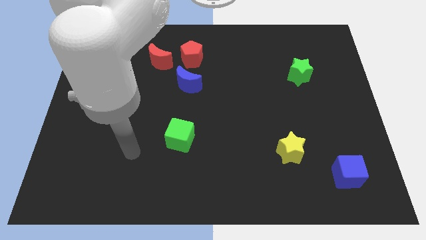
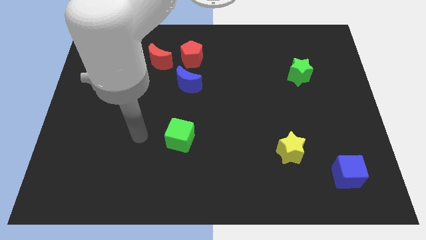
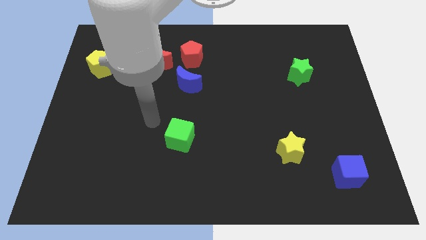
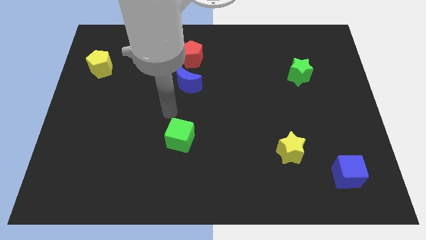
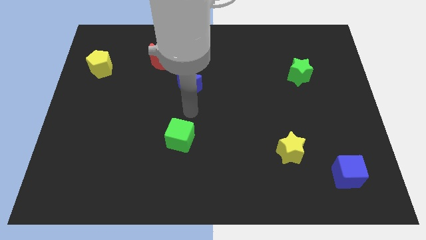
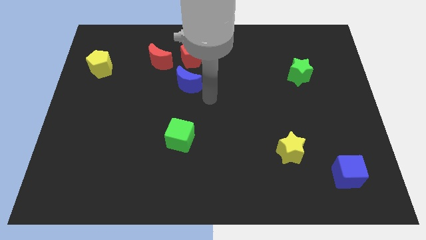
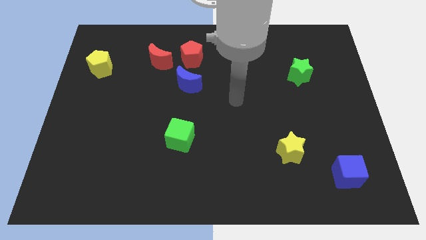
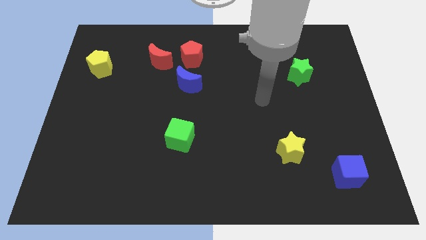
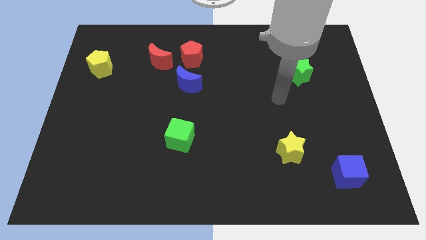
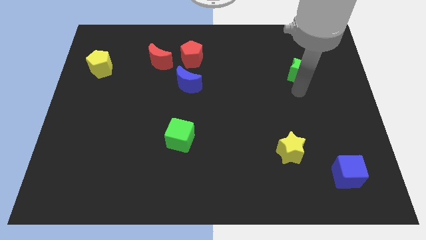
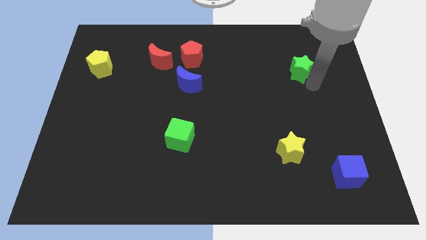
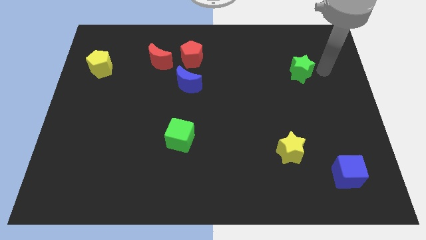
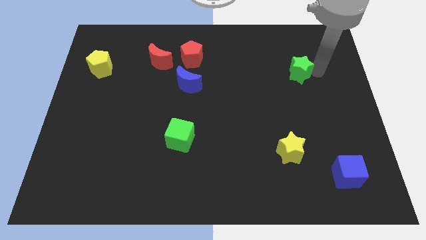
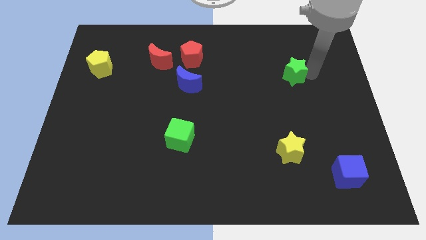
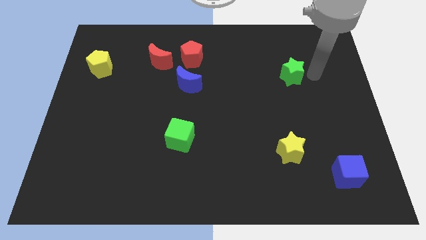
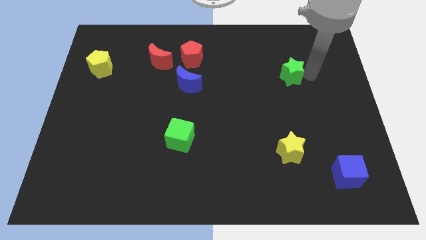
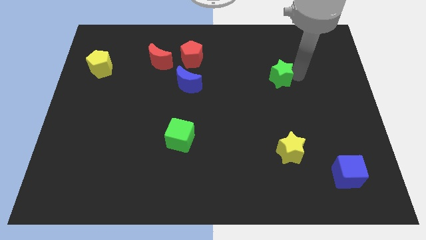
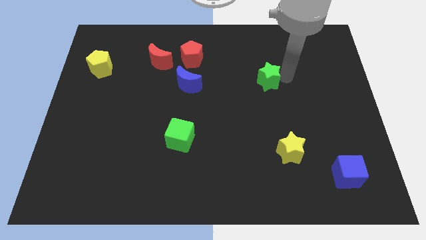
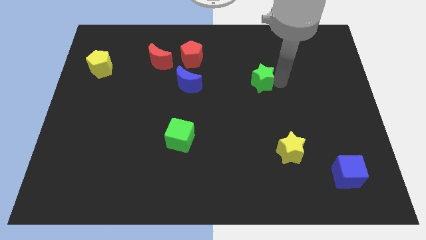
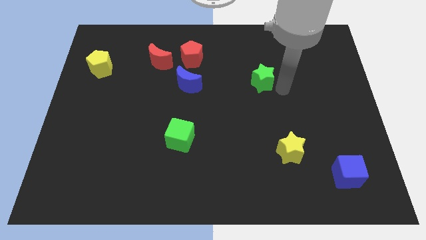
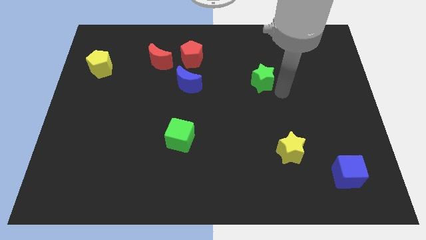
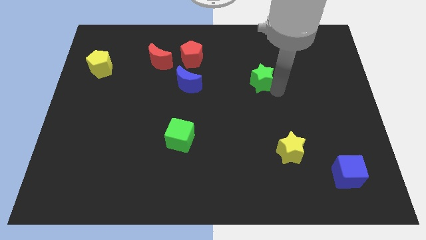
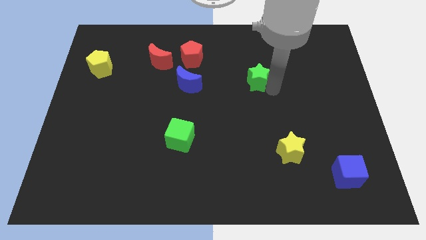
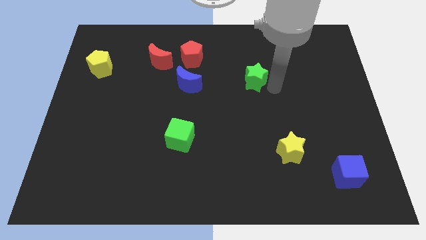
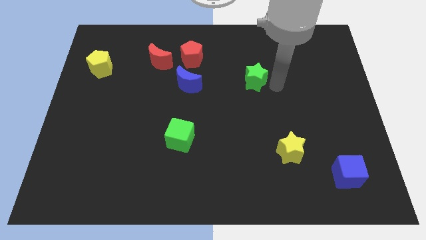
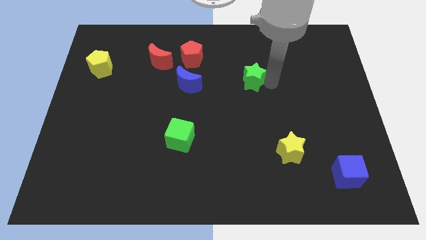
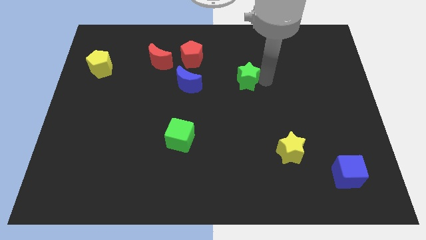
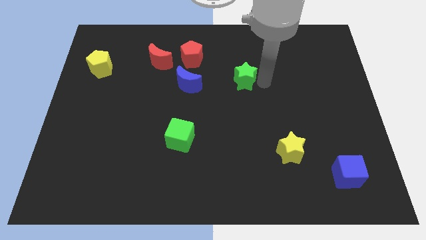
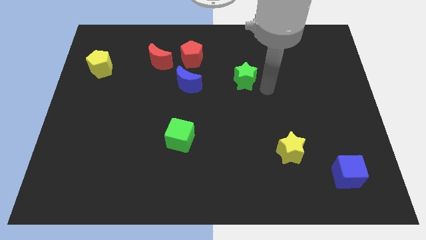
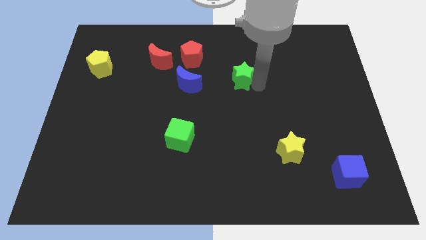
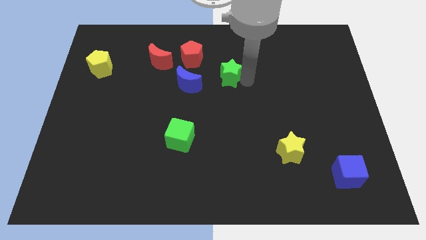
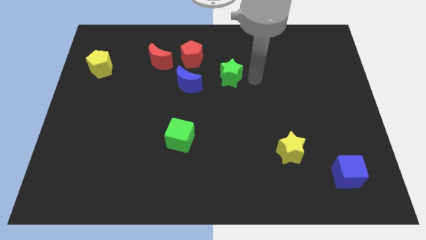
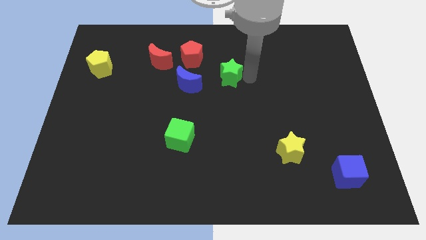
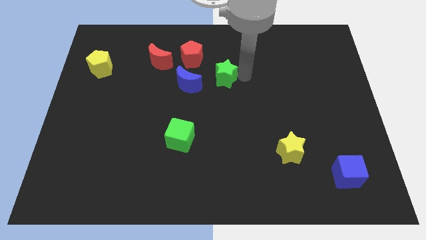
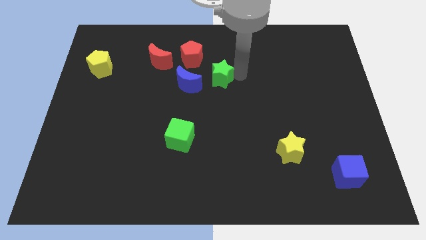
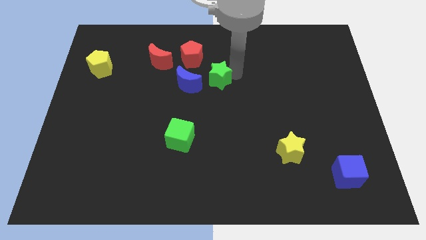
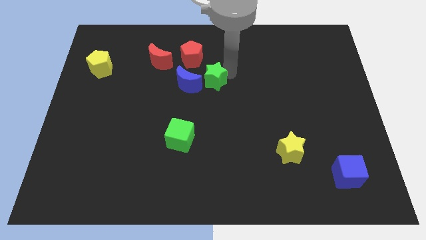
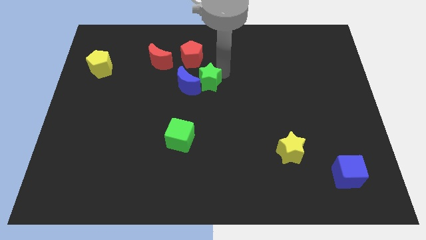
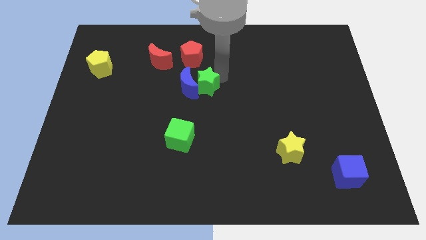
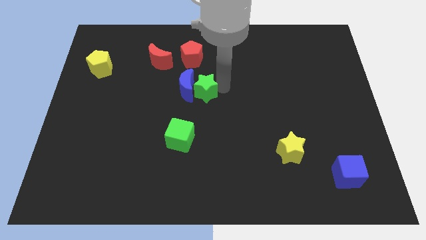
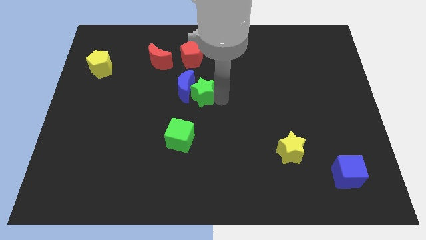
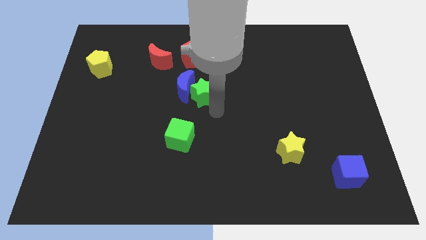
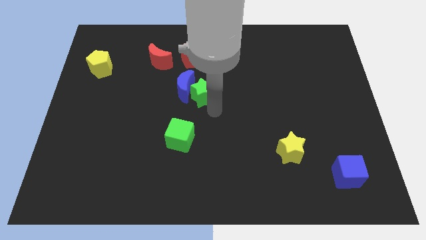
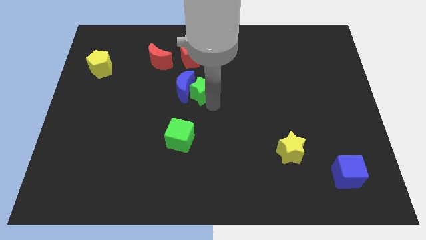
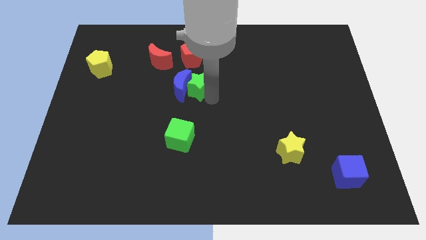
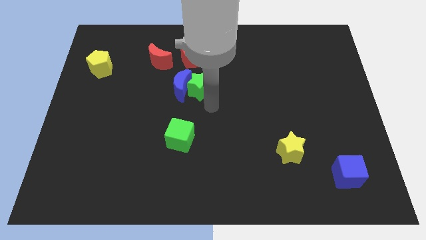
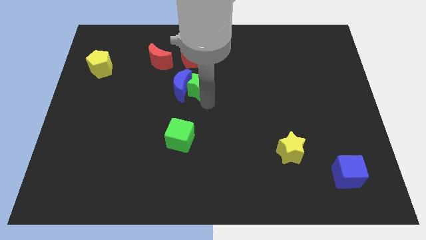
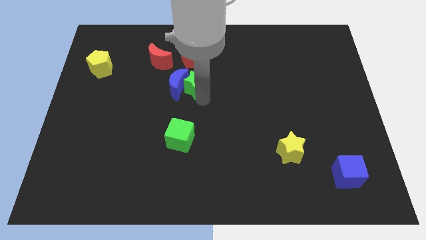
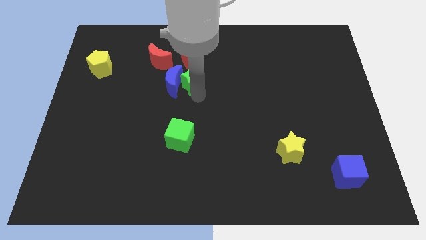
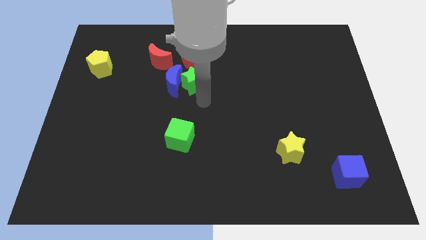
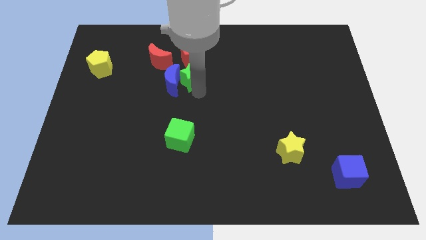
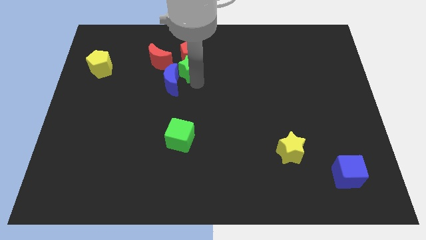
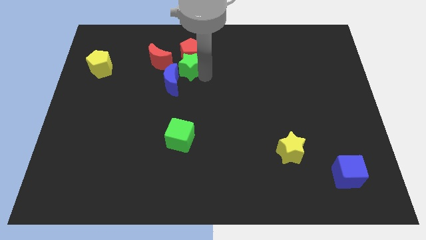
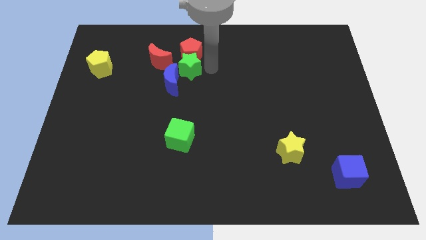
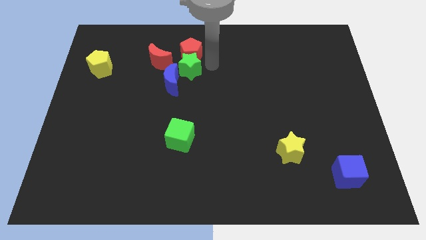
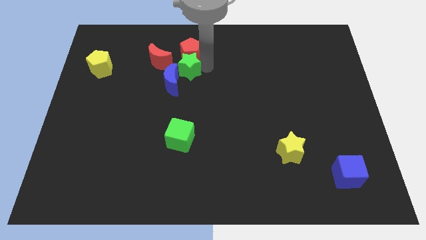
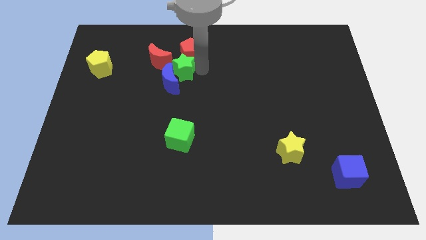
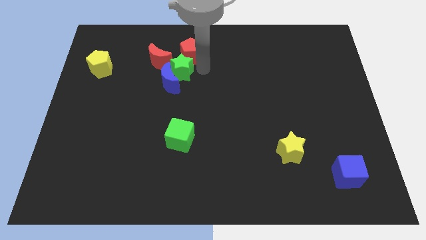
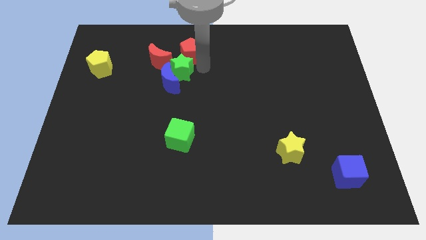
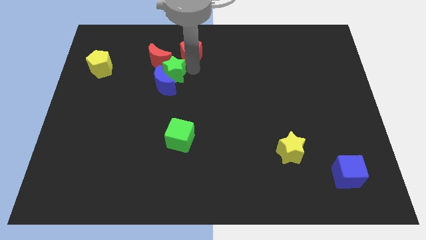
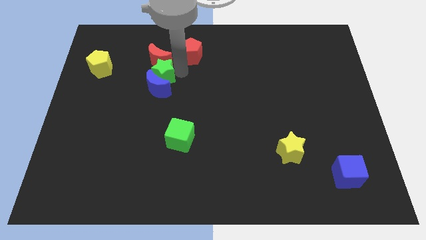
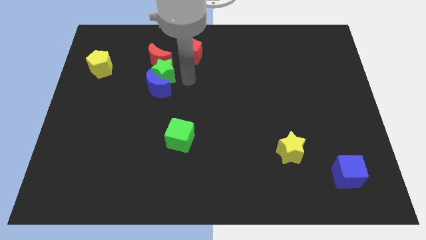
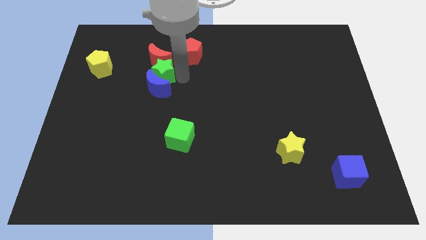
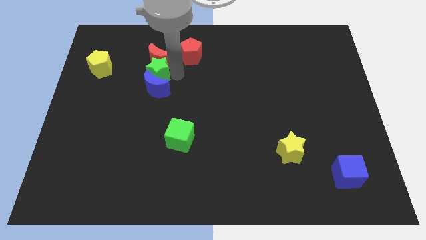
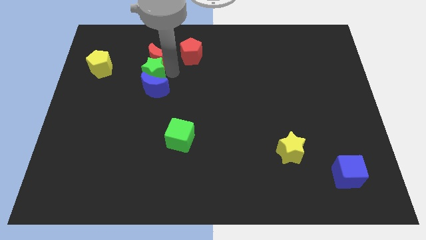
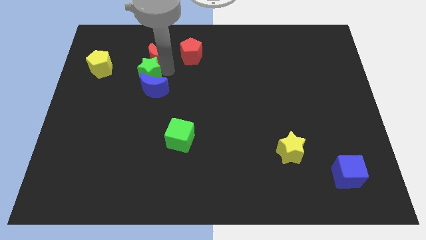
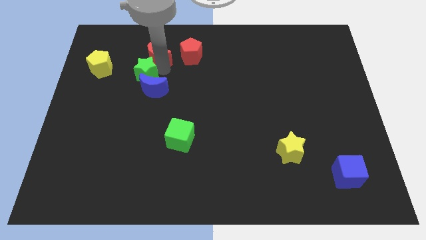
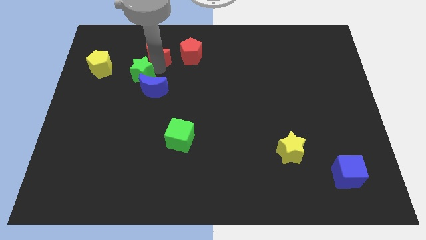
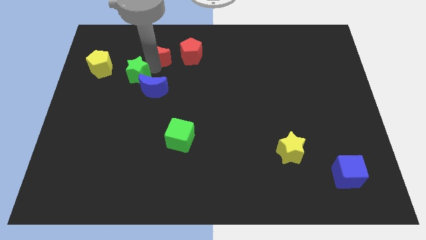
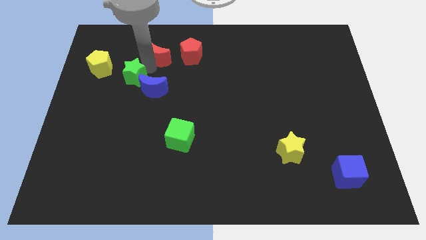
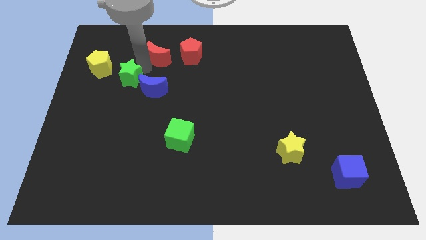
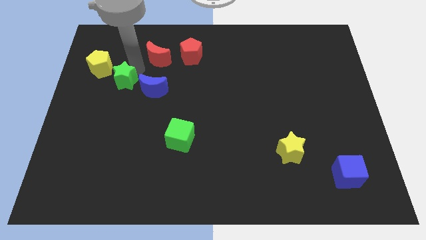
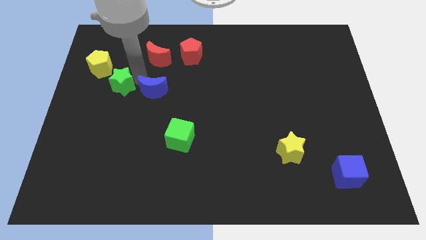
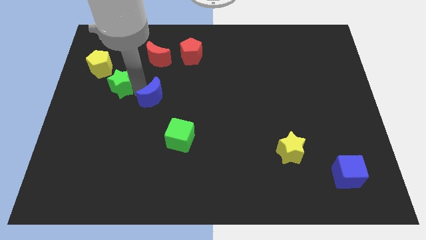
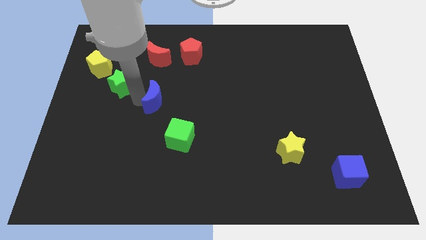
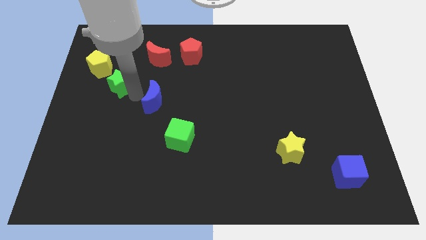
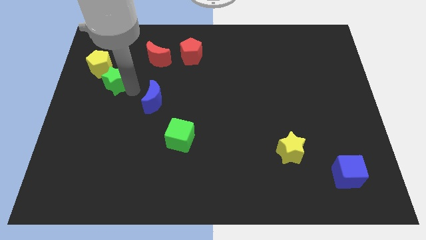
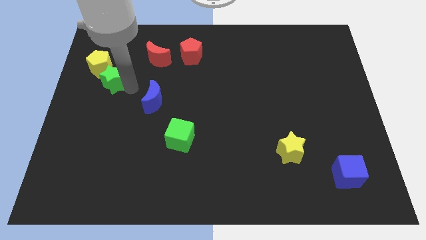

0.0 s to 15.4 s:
move the green star next to the yellow pentagon
